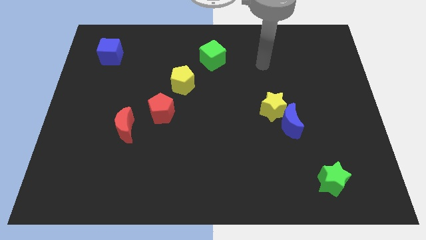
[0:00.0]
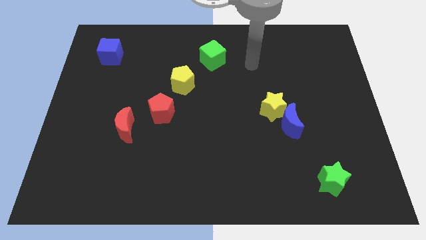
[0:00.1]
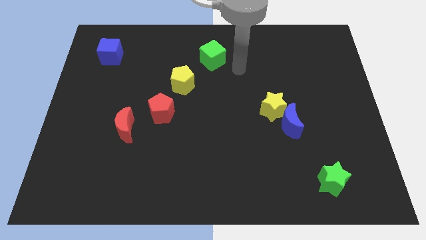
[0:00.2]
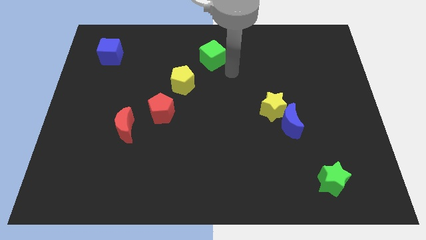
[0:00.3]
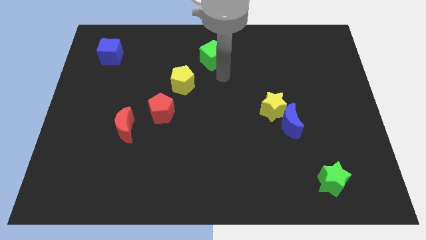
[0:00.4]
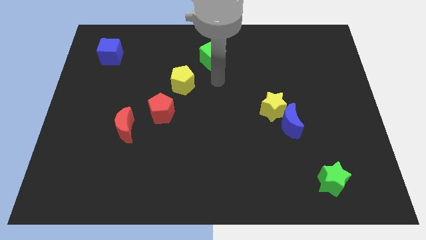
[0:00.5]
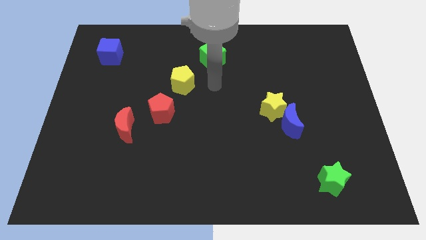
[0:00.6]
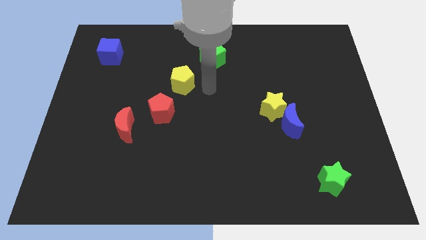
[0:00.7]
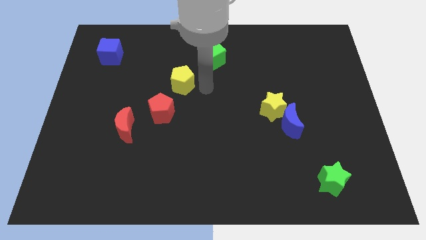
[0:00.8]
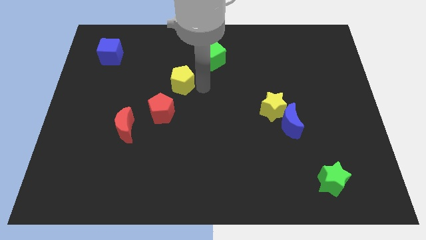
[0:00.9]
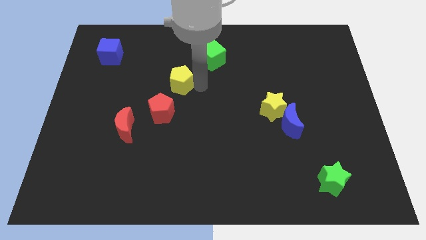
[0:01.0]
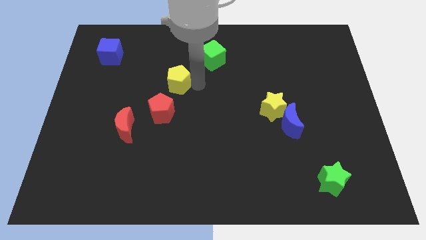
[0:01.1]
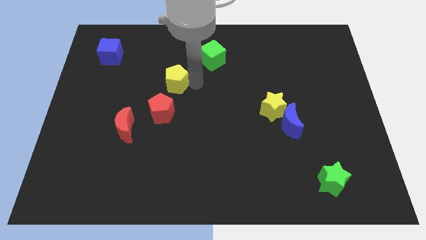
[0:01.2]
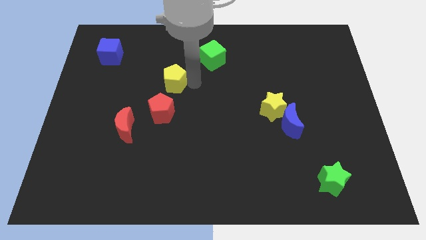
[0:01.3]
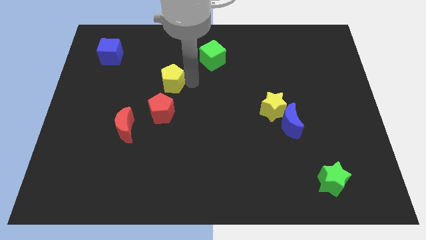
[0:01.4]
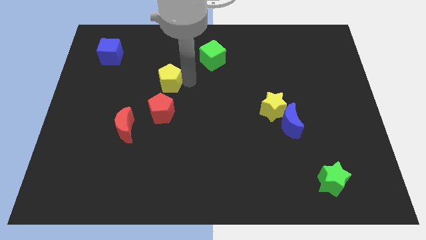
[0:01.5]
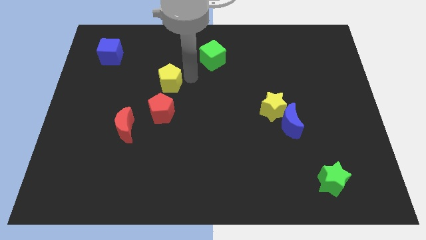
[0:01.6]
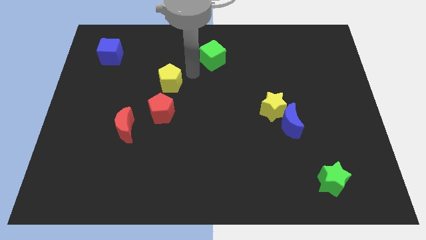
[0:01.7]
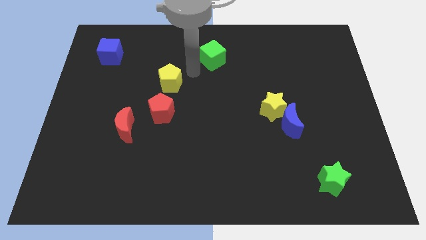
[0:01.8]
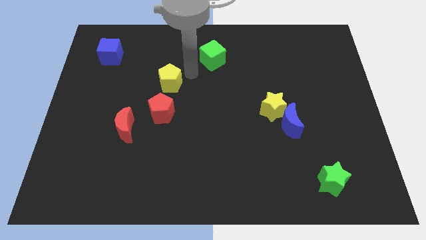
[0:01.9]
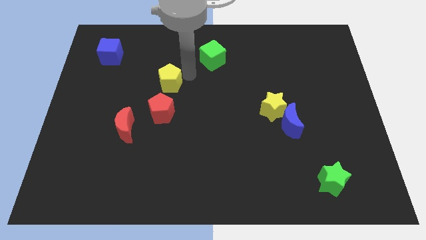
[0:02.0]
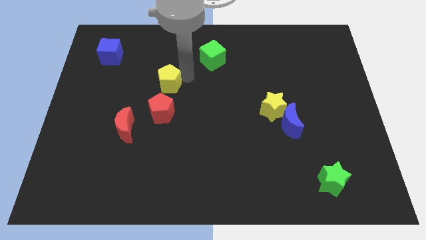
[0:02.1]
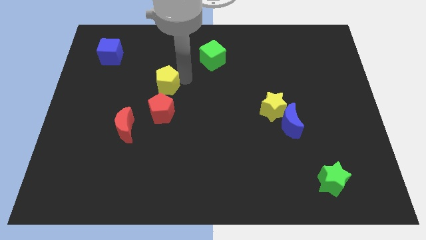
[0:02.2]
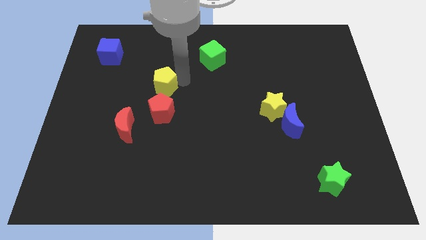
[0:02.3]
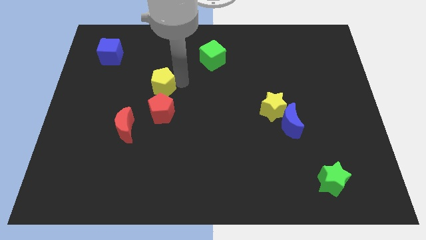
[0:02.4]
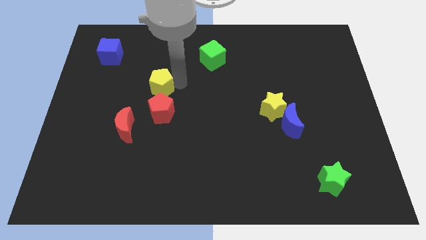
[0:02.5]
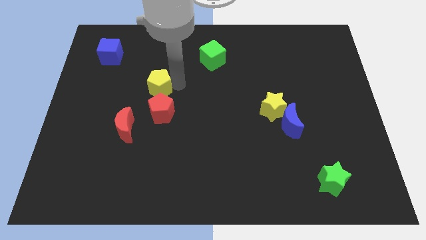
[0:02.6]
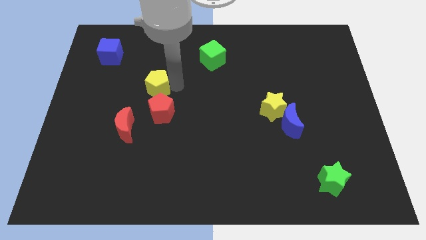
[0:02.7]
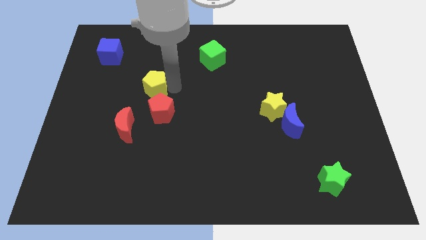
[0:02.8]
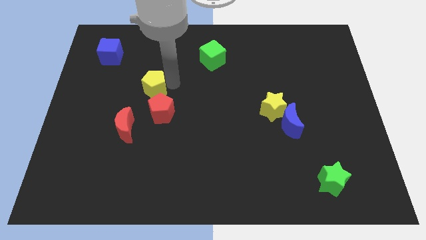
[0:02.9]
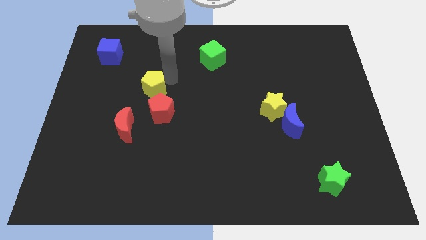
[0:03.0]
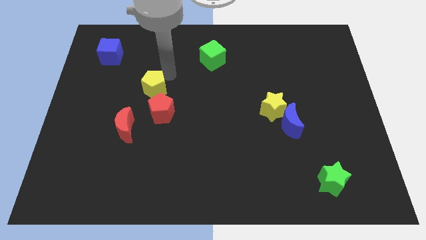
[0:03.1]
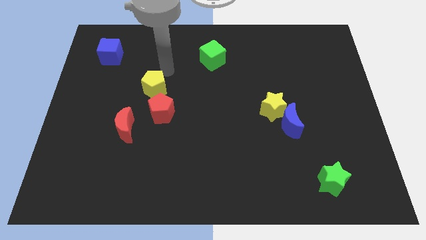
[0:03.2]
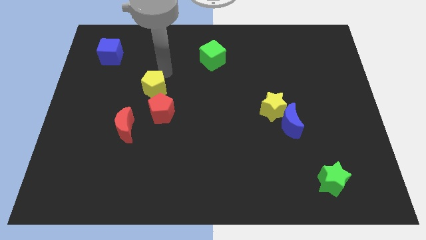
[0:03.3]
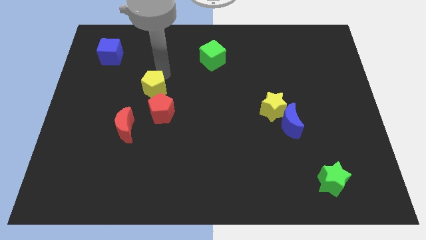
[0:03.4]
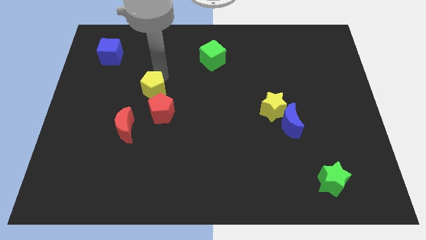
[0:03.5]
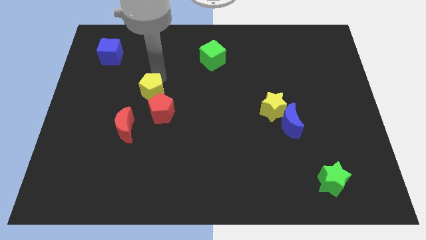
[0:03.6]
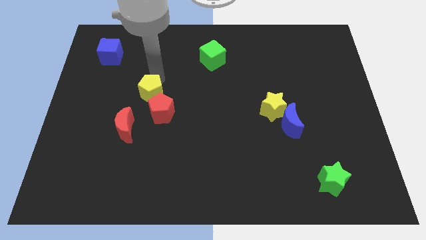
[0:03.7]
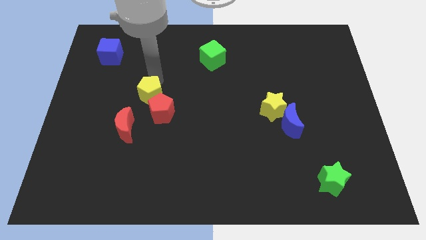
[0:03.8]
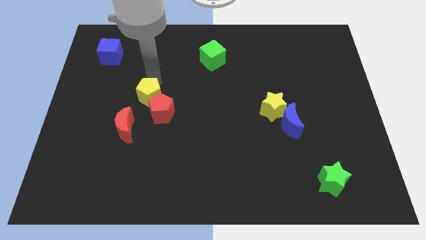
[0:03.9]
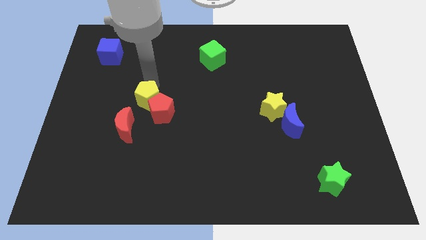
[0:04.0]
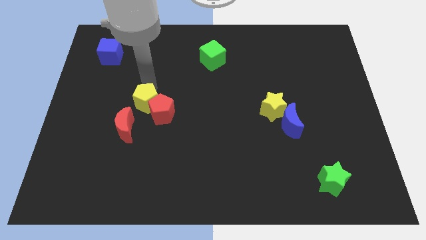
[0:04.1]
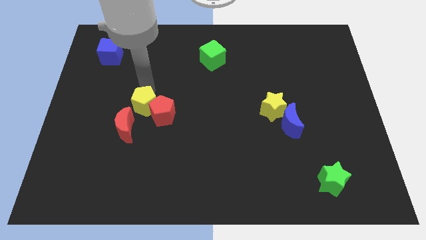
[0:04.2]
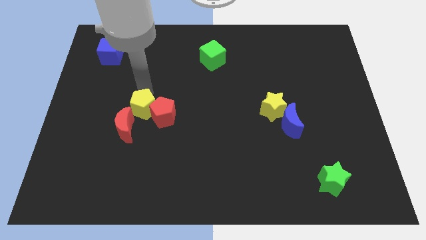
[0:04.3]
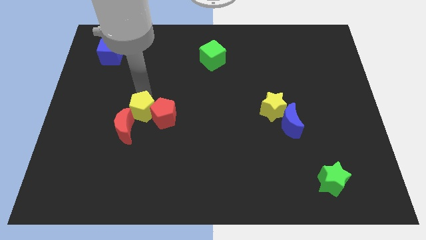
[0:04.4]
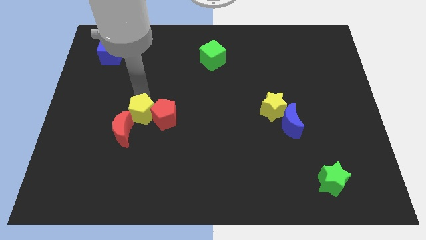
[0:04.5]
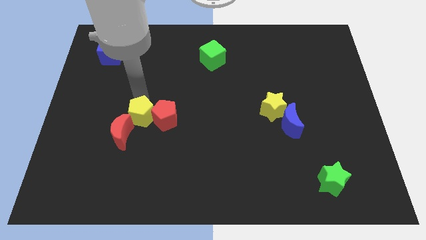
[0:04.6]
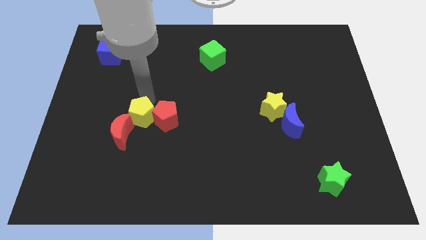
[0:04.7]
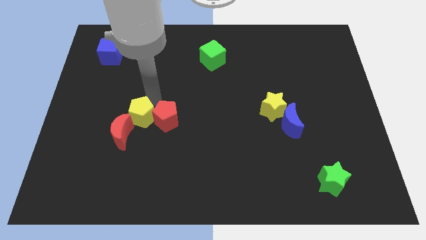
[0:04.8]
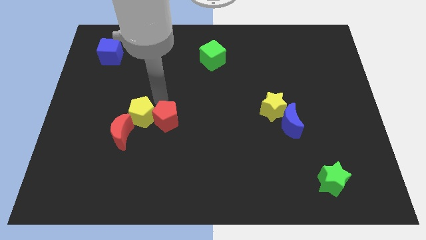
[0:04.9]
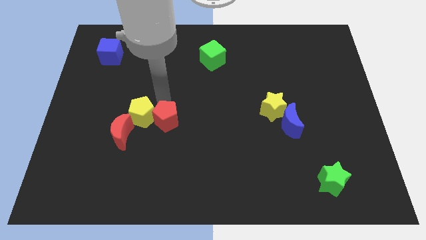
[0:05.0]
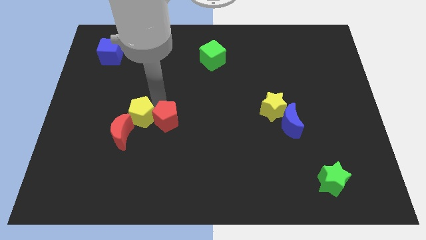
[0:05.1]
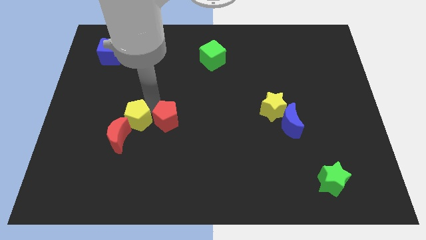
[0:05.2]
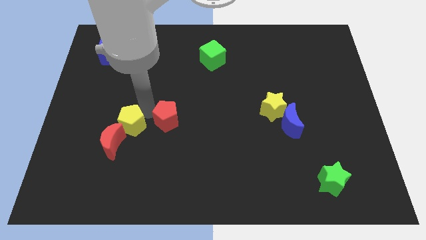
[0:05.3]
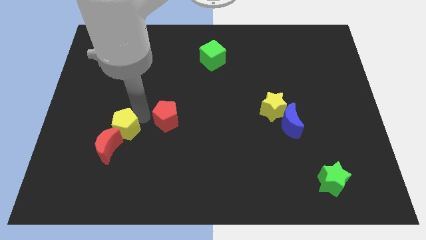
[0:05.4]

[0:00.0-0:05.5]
put the yellow pentagon next to the red moon
